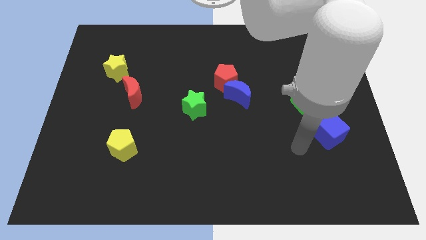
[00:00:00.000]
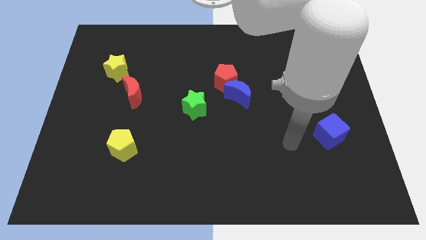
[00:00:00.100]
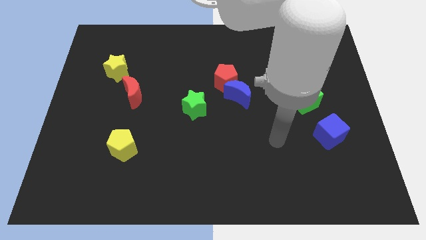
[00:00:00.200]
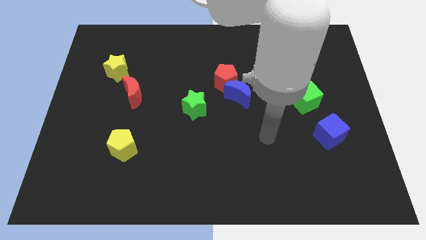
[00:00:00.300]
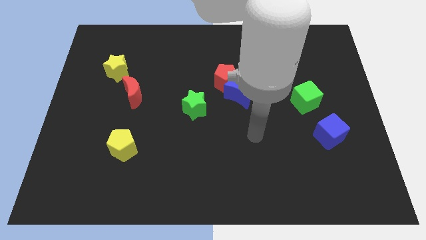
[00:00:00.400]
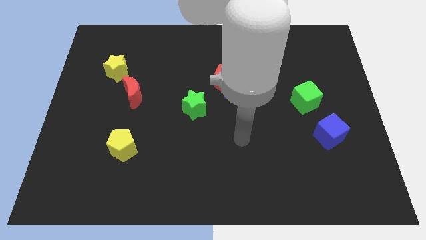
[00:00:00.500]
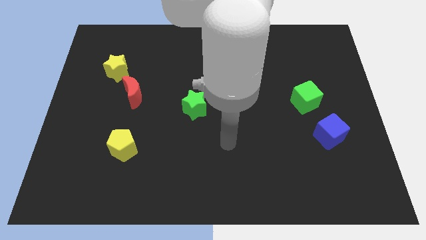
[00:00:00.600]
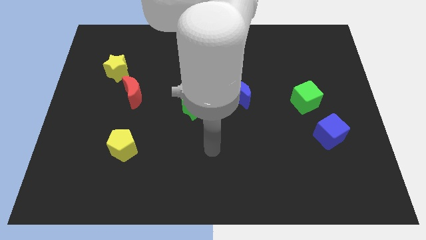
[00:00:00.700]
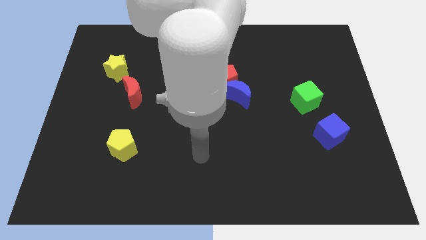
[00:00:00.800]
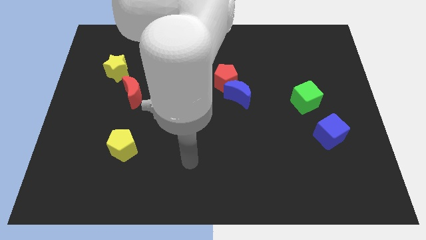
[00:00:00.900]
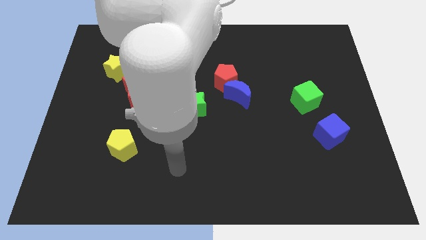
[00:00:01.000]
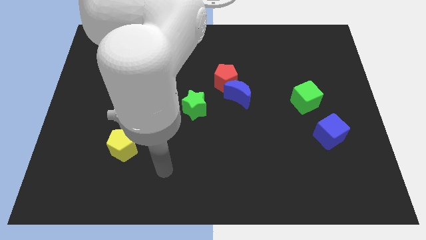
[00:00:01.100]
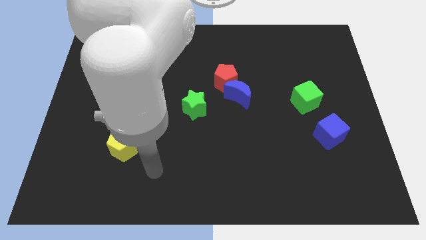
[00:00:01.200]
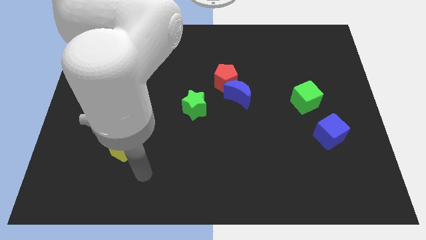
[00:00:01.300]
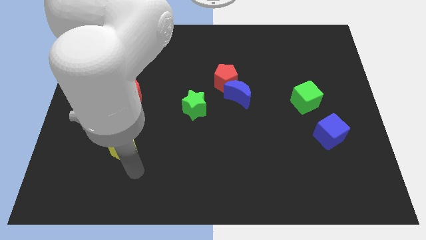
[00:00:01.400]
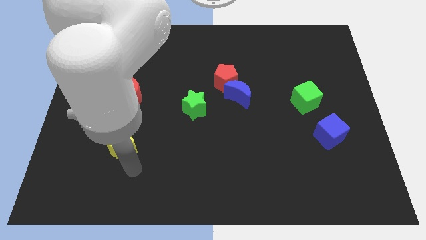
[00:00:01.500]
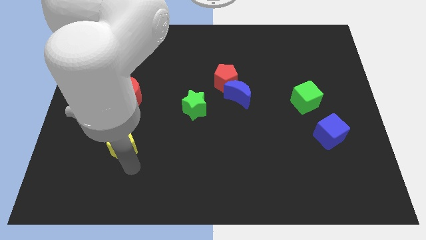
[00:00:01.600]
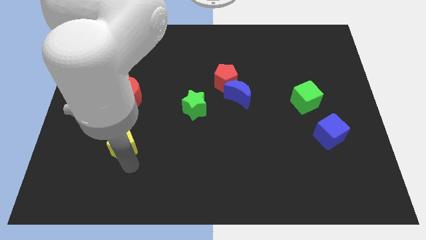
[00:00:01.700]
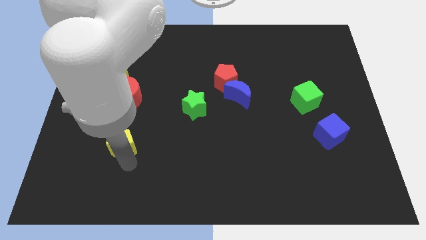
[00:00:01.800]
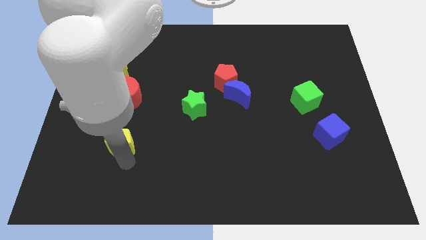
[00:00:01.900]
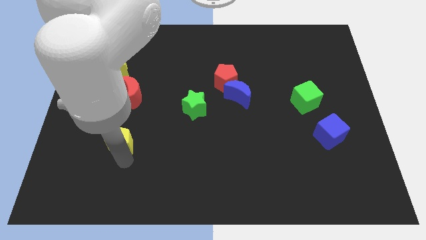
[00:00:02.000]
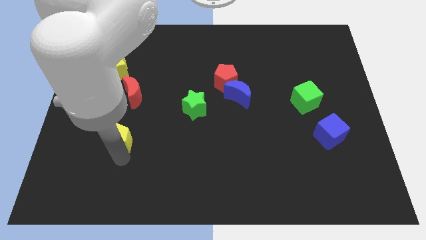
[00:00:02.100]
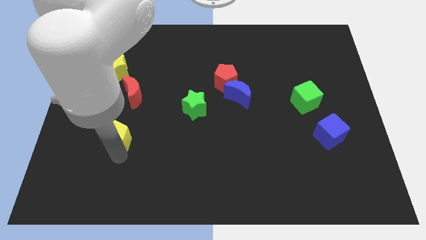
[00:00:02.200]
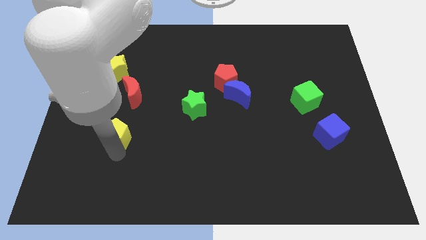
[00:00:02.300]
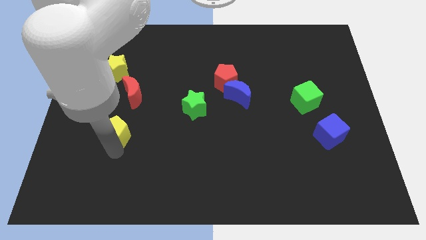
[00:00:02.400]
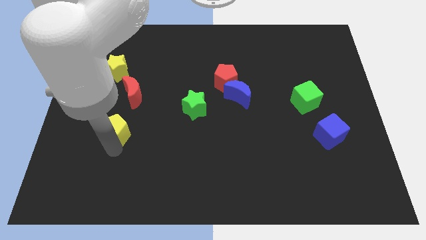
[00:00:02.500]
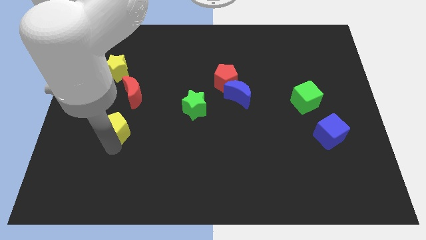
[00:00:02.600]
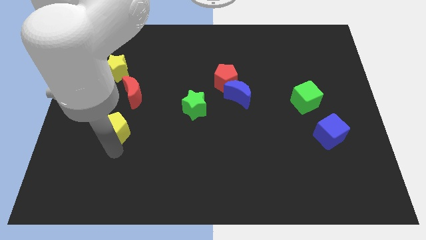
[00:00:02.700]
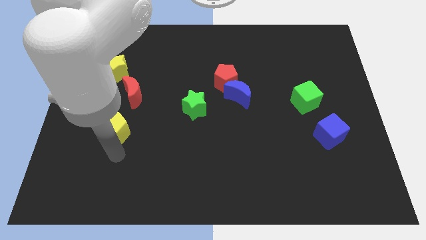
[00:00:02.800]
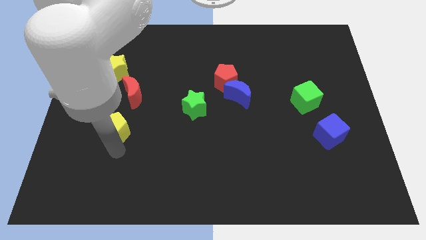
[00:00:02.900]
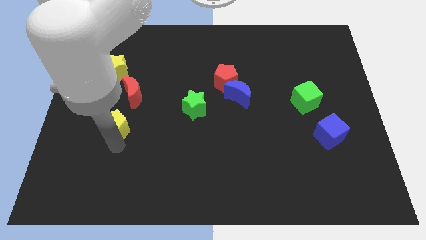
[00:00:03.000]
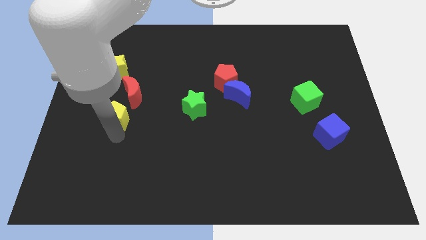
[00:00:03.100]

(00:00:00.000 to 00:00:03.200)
slightly slide the yellow pentagon up

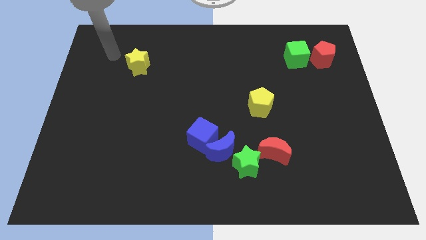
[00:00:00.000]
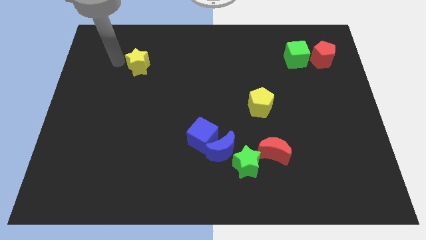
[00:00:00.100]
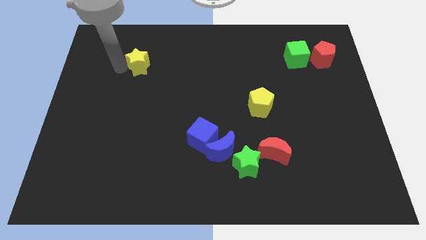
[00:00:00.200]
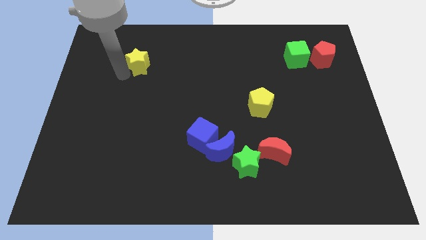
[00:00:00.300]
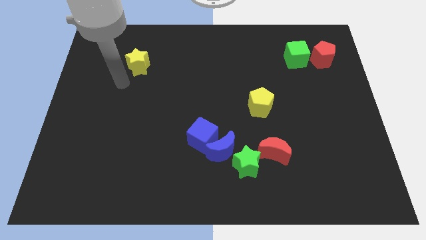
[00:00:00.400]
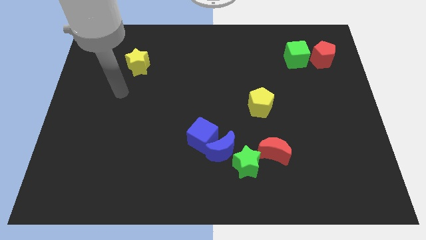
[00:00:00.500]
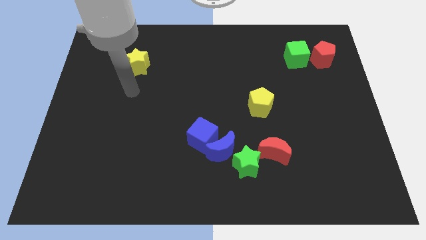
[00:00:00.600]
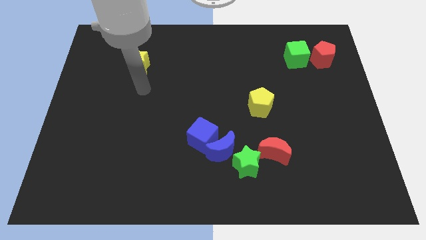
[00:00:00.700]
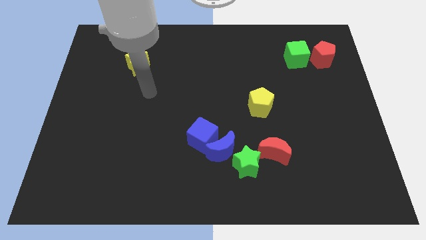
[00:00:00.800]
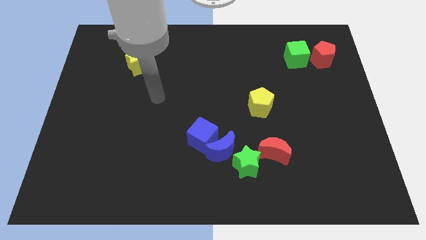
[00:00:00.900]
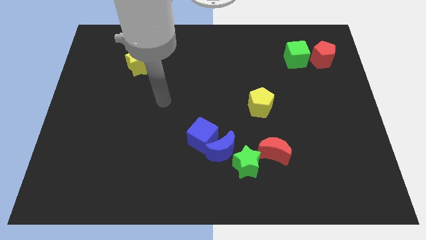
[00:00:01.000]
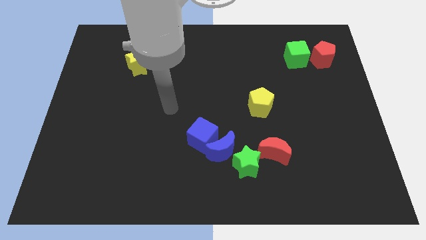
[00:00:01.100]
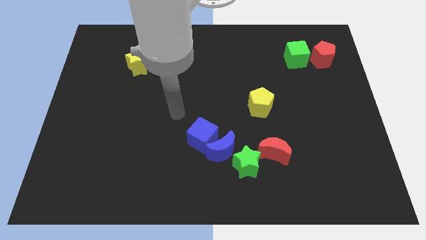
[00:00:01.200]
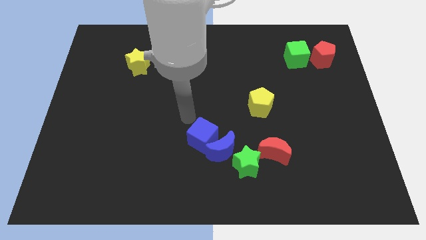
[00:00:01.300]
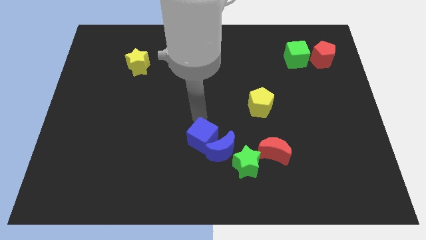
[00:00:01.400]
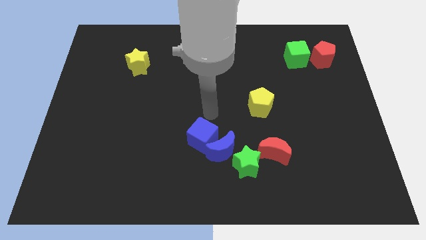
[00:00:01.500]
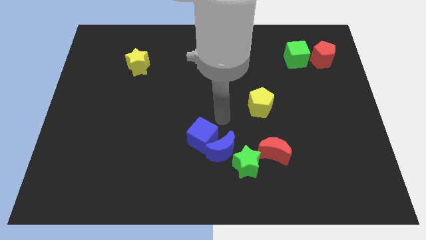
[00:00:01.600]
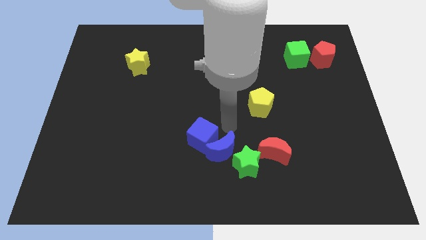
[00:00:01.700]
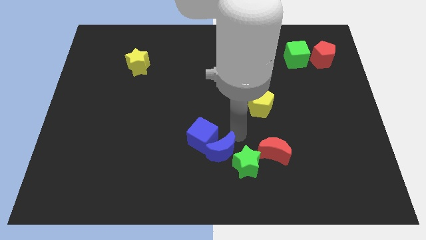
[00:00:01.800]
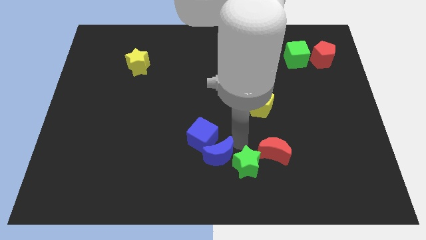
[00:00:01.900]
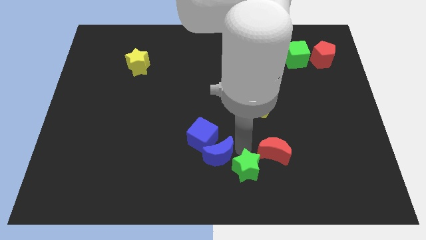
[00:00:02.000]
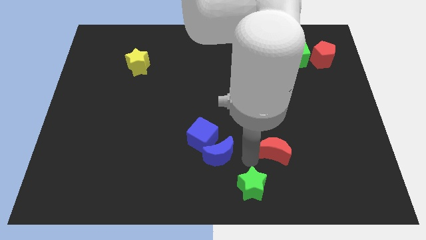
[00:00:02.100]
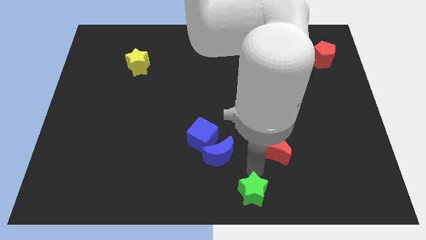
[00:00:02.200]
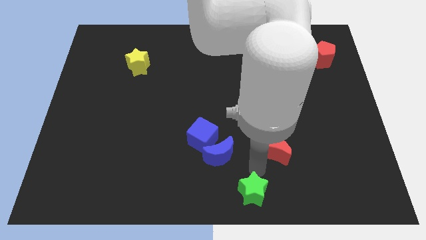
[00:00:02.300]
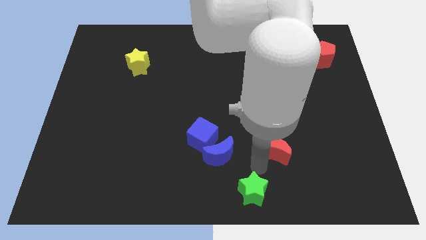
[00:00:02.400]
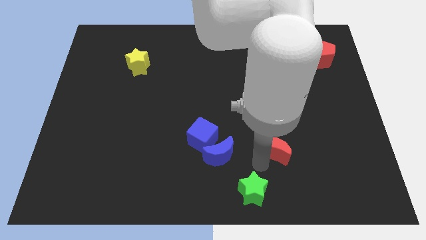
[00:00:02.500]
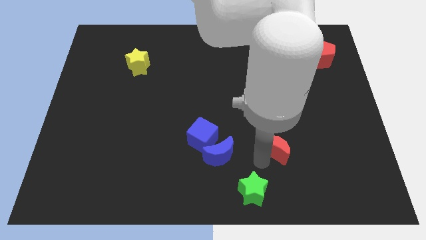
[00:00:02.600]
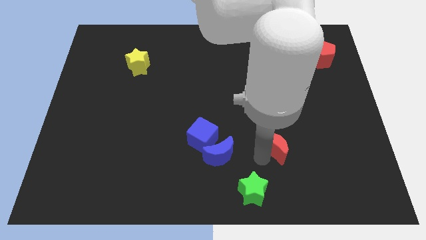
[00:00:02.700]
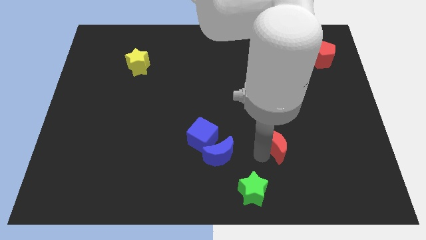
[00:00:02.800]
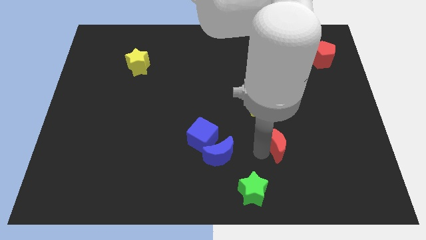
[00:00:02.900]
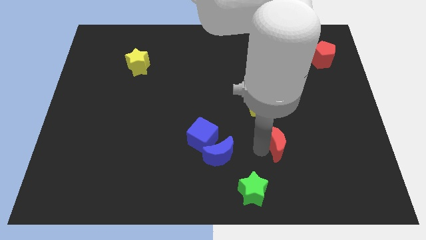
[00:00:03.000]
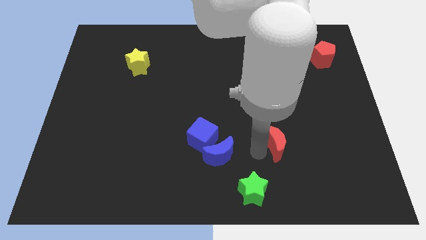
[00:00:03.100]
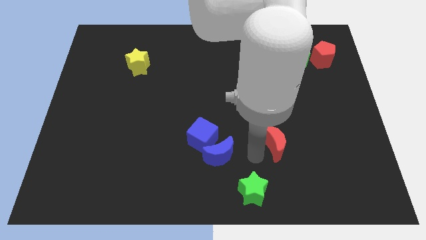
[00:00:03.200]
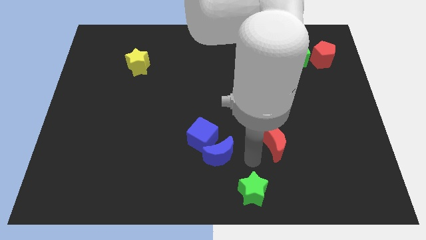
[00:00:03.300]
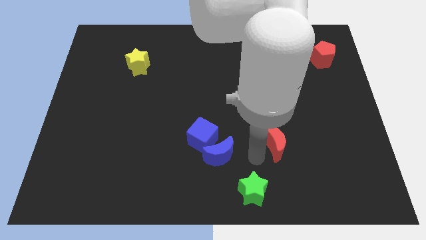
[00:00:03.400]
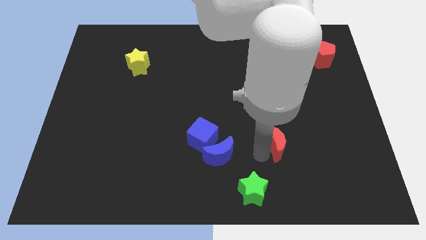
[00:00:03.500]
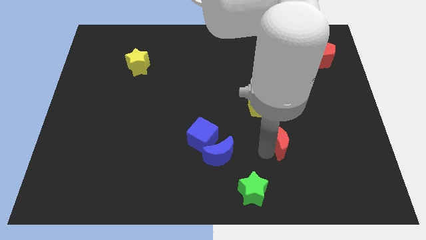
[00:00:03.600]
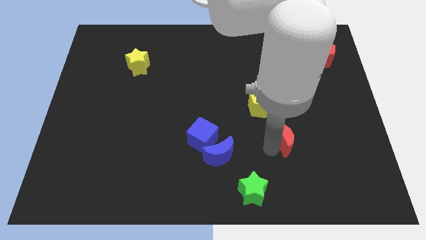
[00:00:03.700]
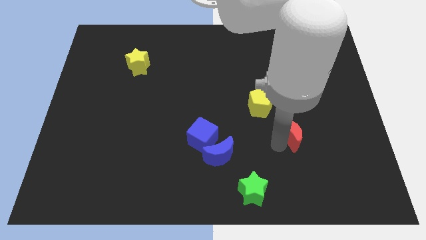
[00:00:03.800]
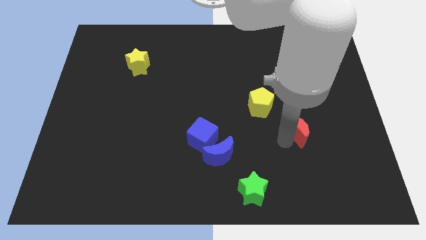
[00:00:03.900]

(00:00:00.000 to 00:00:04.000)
slightly push the red moon up and to the right diagonally

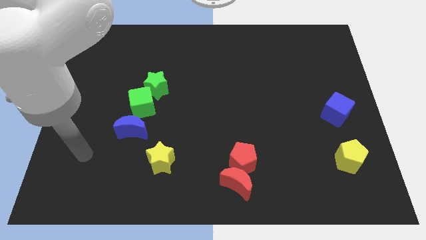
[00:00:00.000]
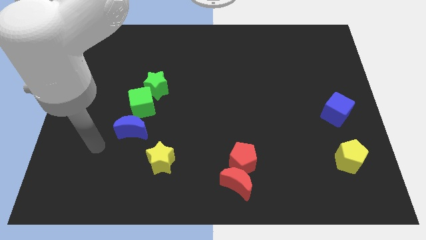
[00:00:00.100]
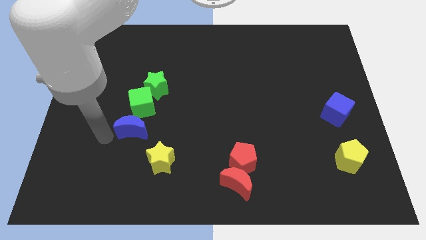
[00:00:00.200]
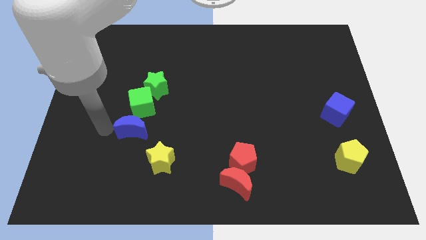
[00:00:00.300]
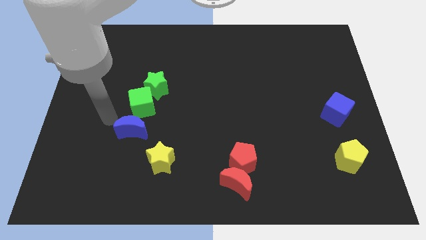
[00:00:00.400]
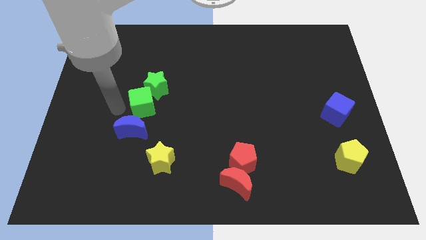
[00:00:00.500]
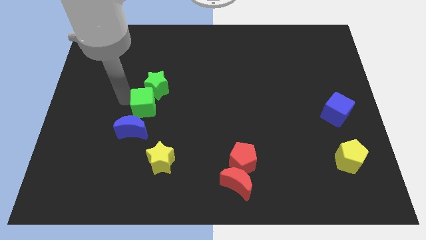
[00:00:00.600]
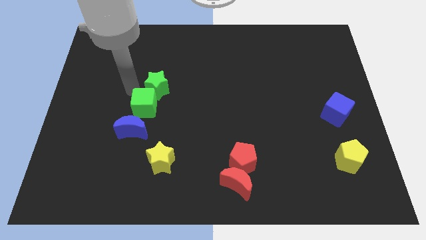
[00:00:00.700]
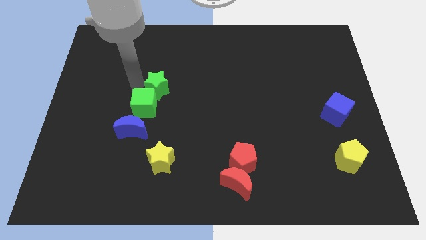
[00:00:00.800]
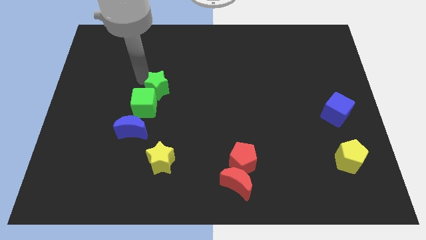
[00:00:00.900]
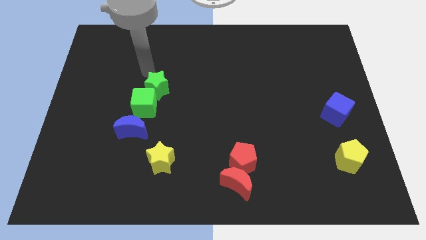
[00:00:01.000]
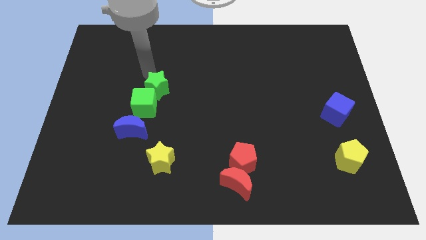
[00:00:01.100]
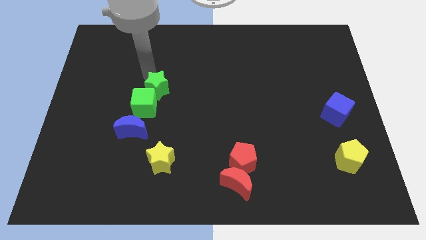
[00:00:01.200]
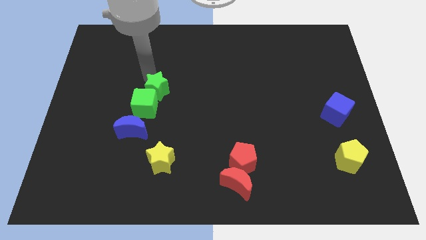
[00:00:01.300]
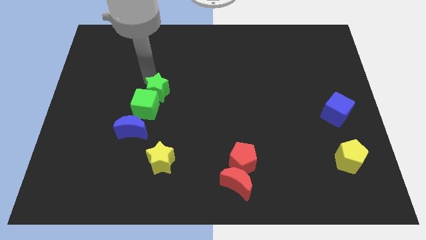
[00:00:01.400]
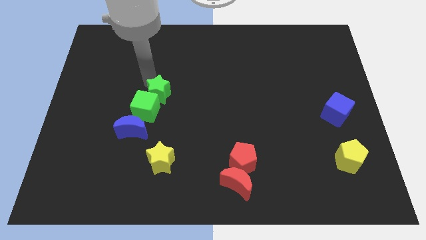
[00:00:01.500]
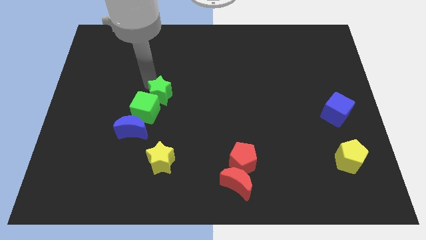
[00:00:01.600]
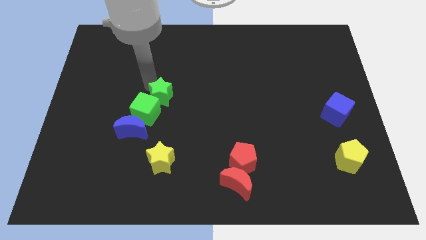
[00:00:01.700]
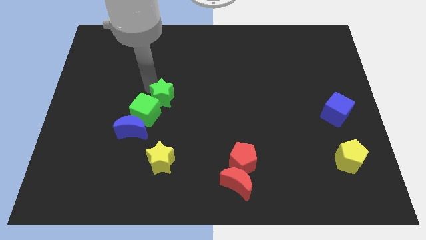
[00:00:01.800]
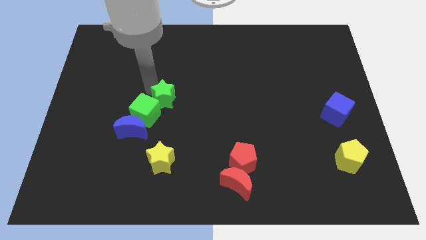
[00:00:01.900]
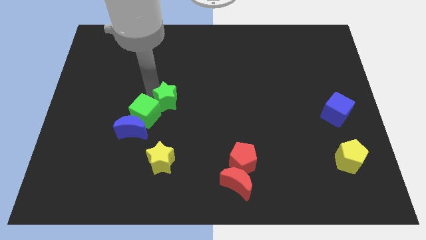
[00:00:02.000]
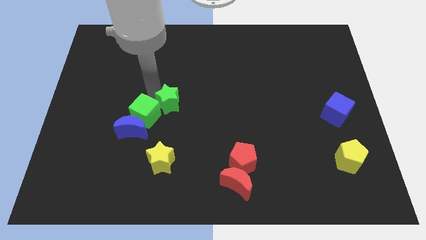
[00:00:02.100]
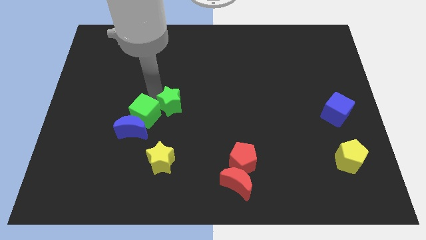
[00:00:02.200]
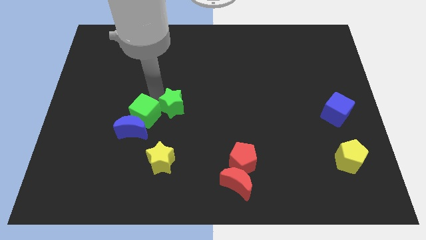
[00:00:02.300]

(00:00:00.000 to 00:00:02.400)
push the green star a bit downwards and right diagonally
